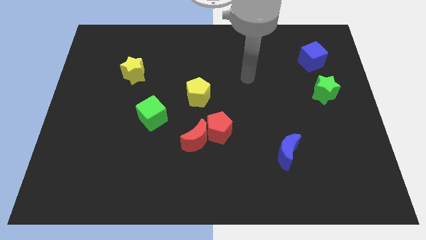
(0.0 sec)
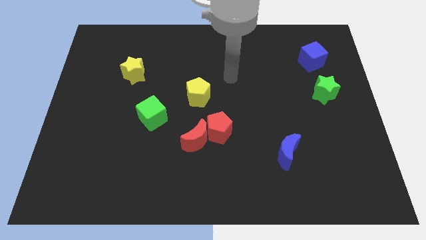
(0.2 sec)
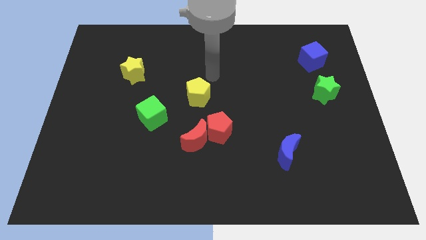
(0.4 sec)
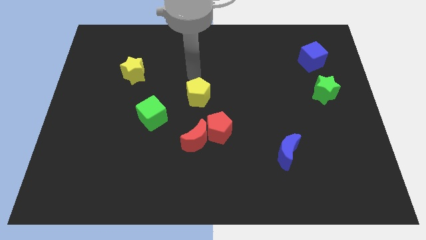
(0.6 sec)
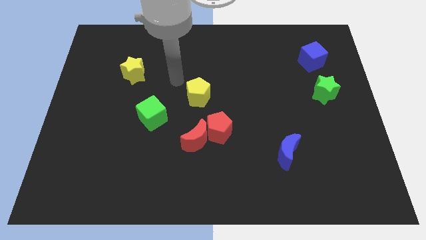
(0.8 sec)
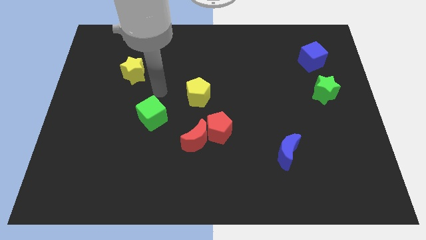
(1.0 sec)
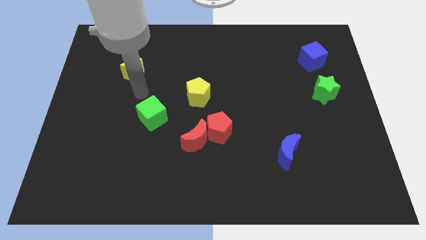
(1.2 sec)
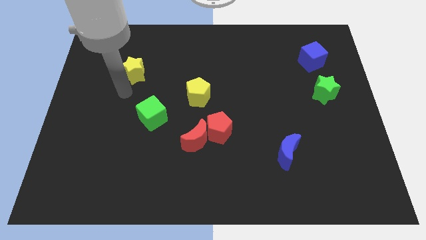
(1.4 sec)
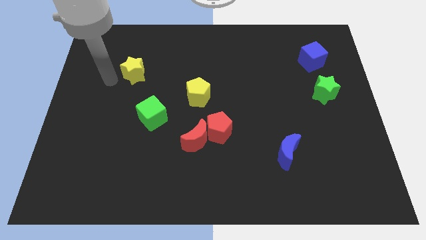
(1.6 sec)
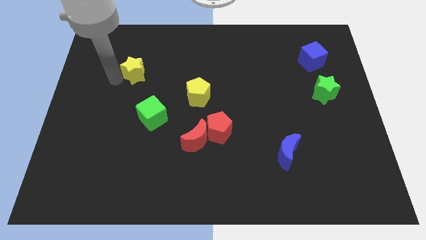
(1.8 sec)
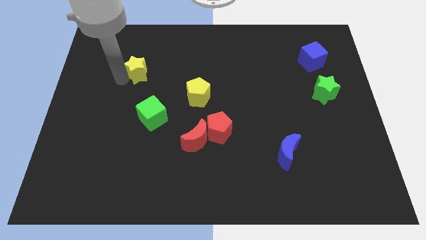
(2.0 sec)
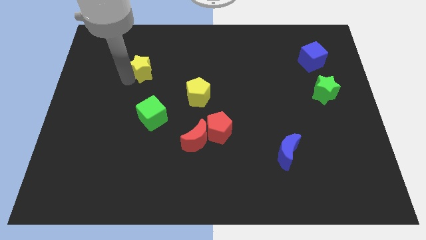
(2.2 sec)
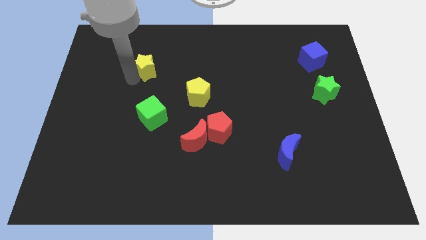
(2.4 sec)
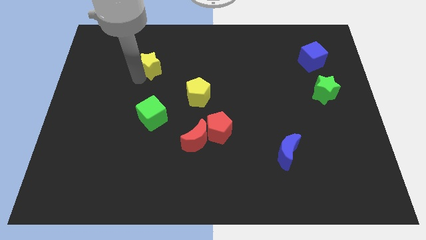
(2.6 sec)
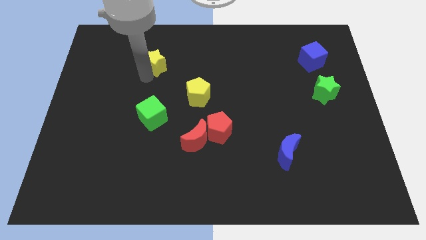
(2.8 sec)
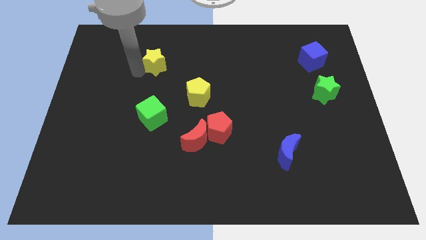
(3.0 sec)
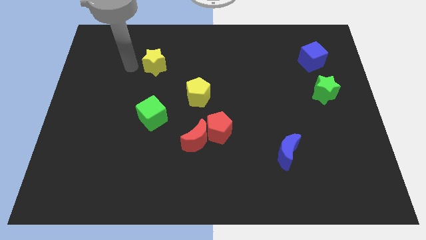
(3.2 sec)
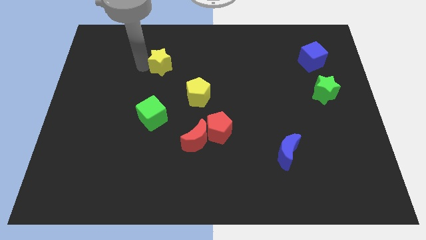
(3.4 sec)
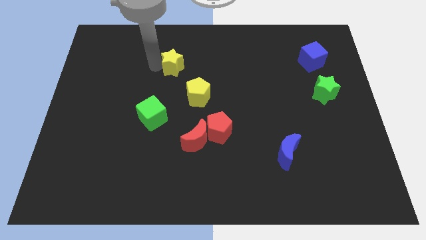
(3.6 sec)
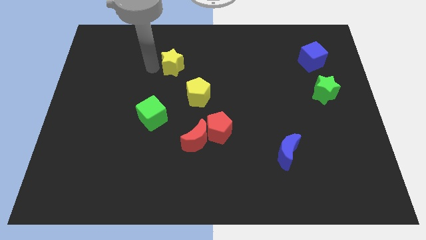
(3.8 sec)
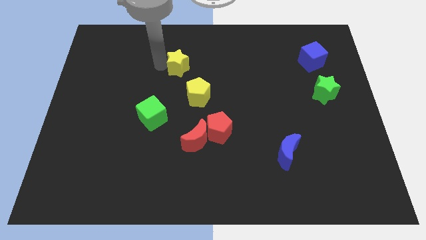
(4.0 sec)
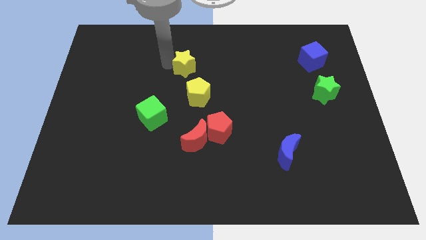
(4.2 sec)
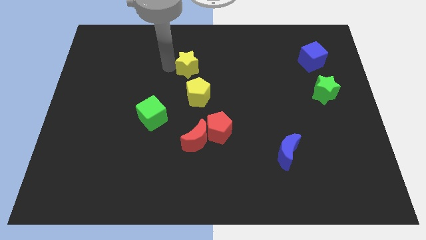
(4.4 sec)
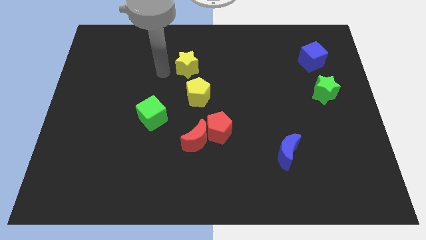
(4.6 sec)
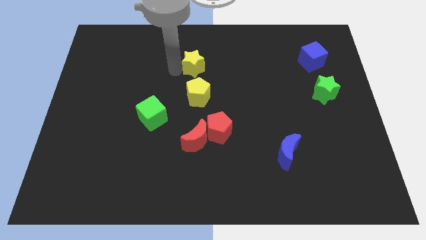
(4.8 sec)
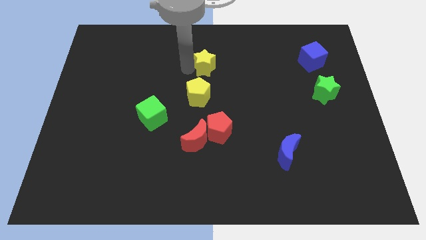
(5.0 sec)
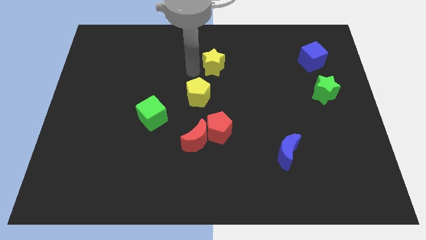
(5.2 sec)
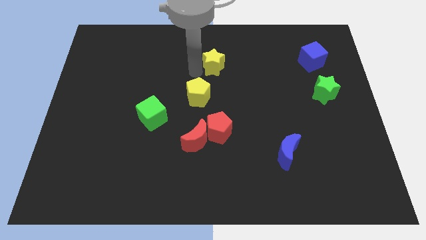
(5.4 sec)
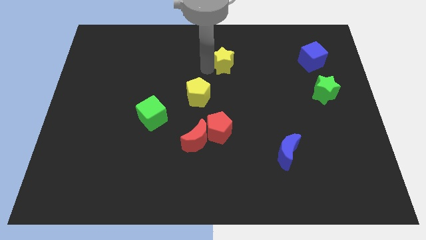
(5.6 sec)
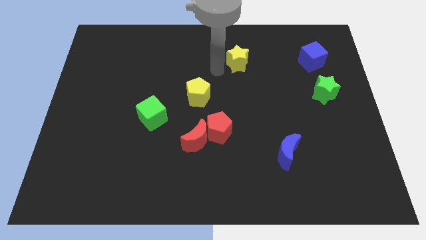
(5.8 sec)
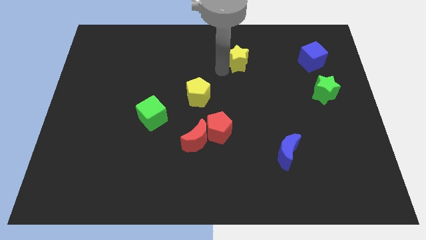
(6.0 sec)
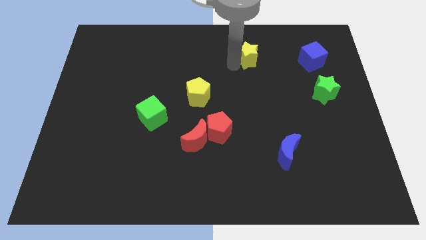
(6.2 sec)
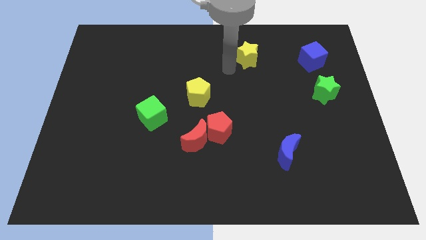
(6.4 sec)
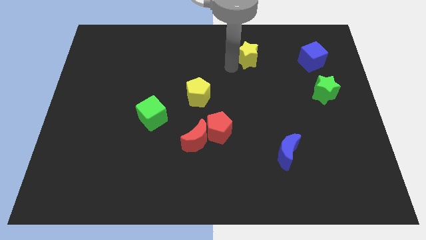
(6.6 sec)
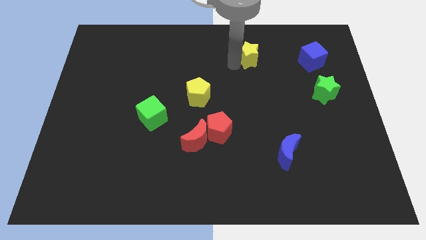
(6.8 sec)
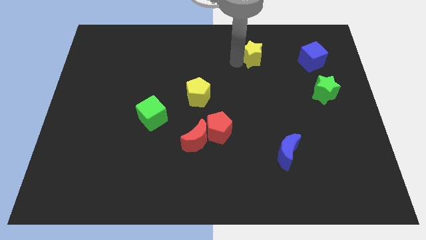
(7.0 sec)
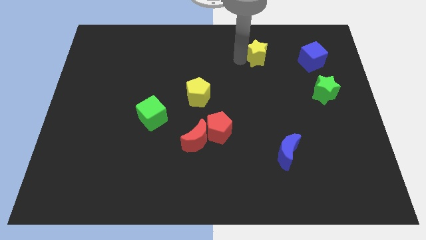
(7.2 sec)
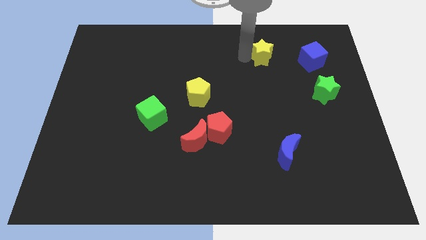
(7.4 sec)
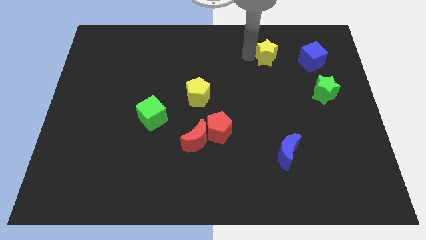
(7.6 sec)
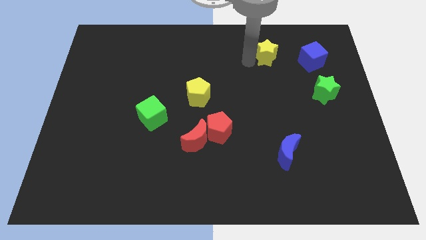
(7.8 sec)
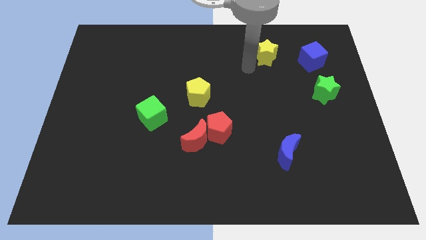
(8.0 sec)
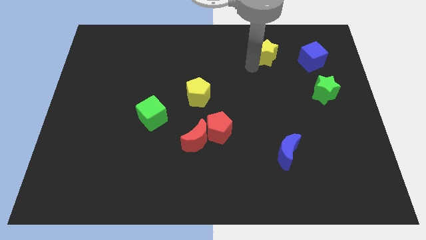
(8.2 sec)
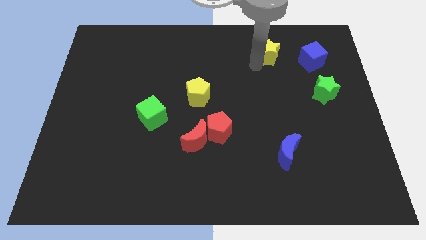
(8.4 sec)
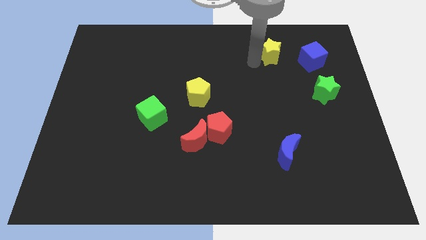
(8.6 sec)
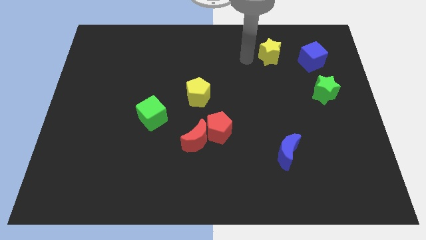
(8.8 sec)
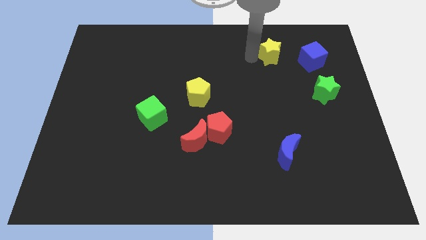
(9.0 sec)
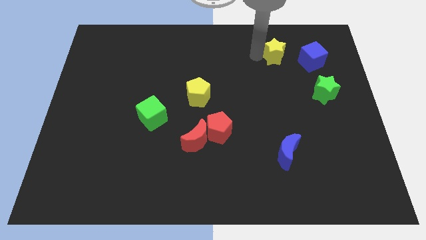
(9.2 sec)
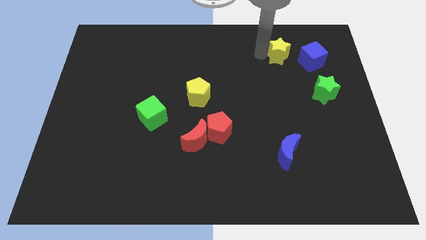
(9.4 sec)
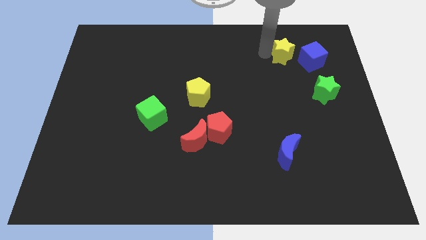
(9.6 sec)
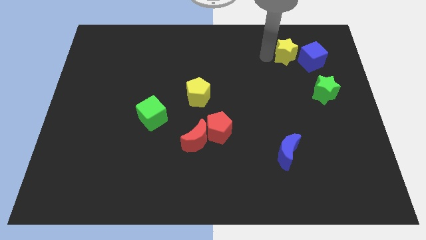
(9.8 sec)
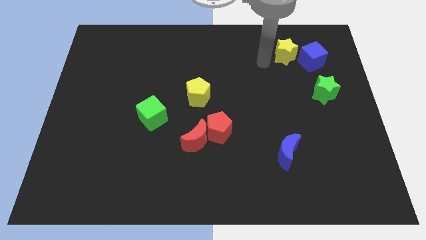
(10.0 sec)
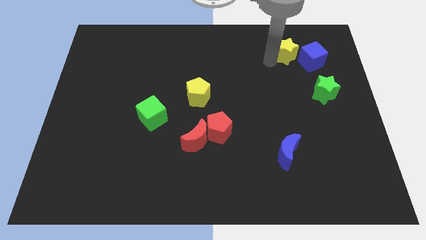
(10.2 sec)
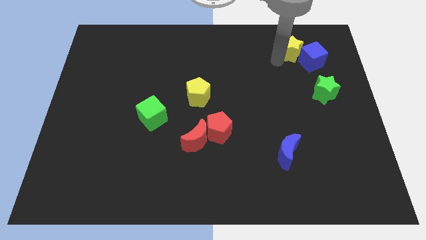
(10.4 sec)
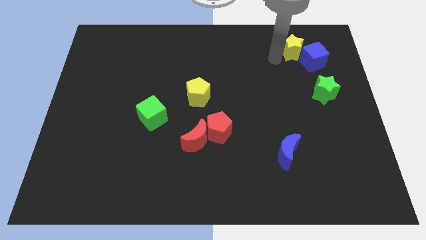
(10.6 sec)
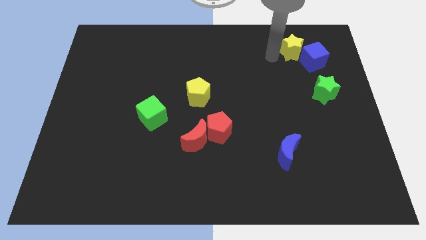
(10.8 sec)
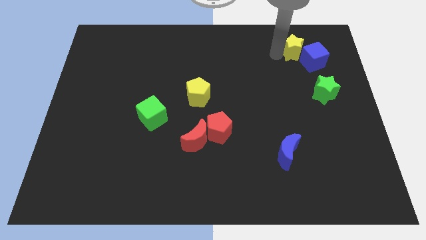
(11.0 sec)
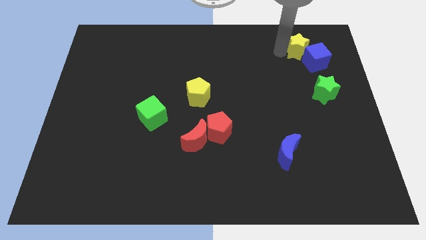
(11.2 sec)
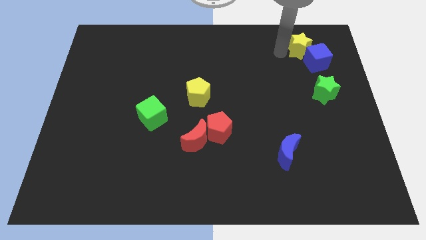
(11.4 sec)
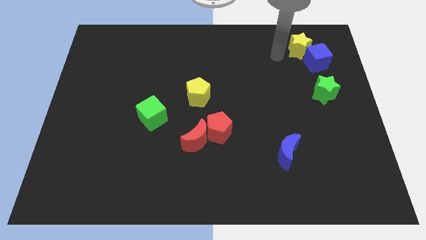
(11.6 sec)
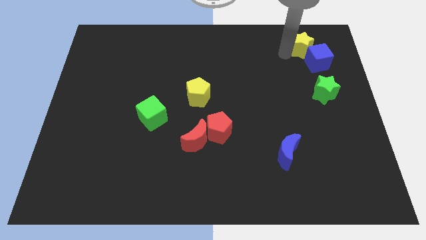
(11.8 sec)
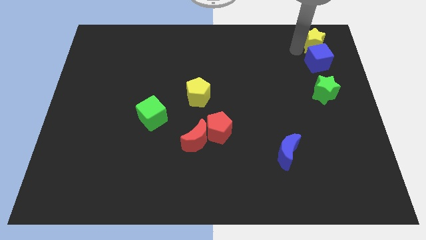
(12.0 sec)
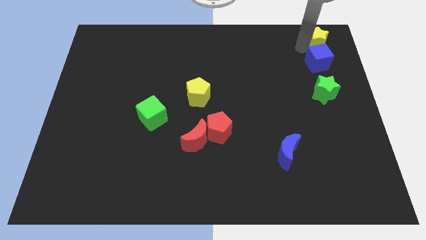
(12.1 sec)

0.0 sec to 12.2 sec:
put the yellow star to the upper right corner
